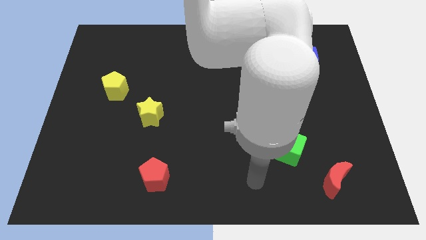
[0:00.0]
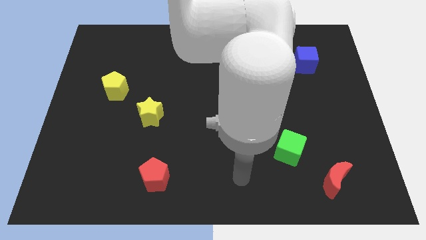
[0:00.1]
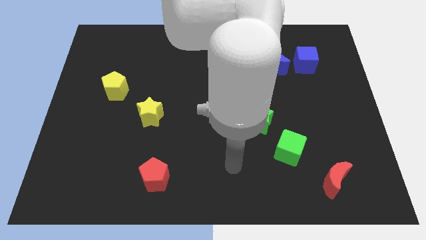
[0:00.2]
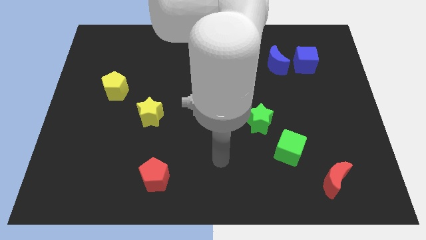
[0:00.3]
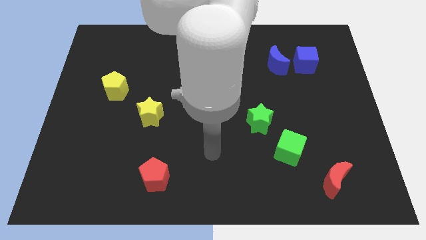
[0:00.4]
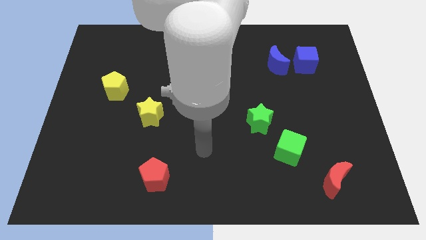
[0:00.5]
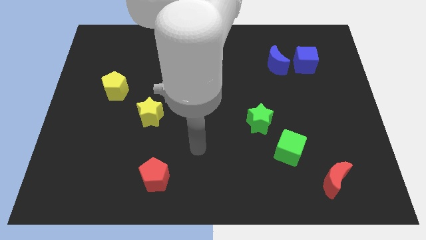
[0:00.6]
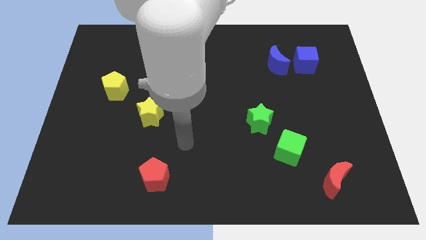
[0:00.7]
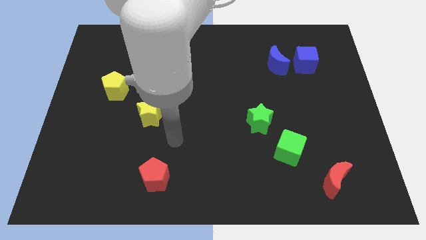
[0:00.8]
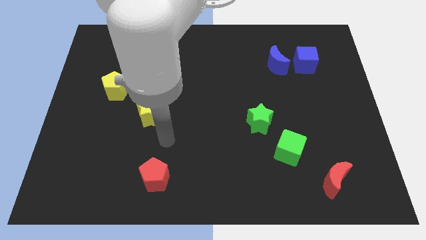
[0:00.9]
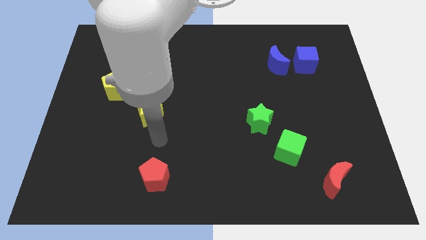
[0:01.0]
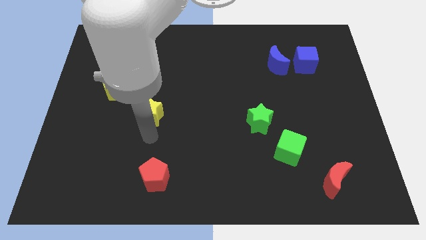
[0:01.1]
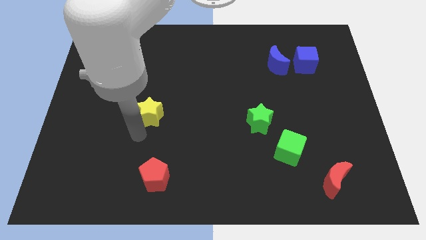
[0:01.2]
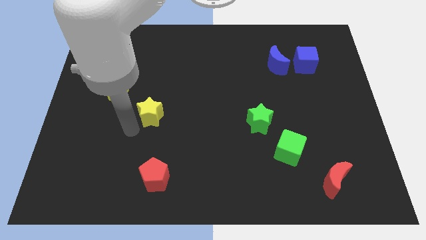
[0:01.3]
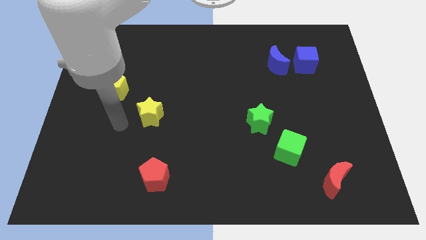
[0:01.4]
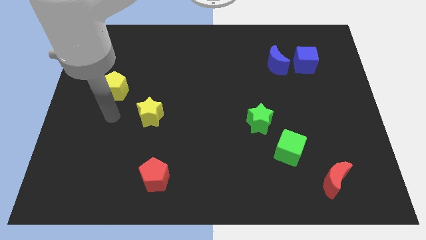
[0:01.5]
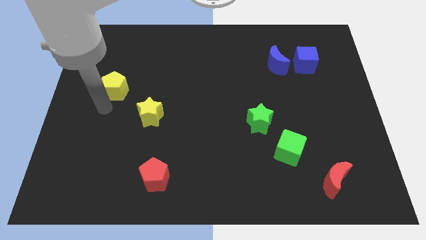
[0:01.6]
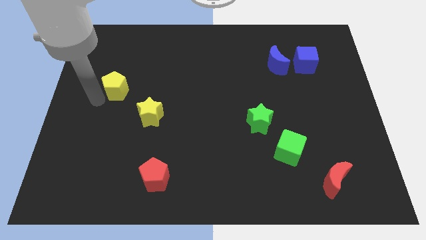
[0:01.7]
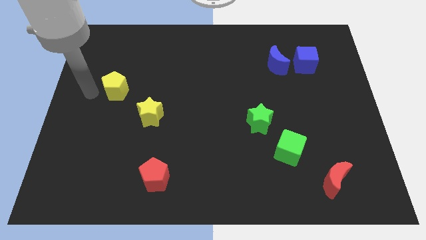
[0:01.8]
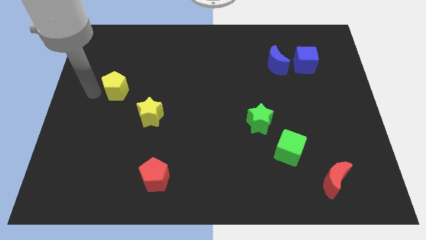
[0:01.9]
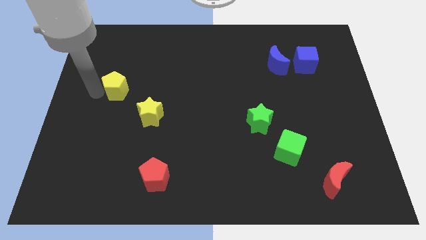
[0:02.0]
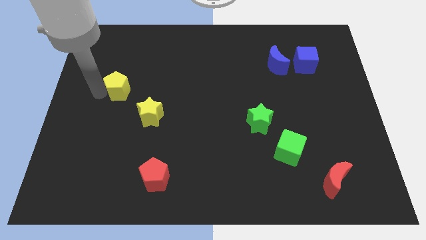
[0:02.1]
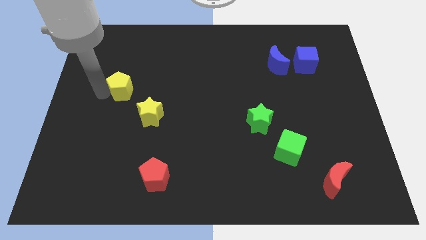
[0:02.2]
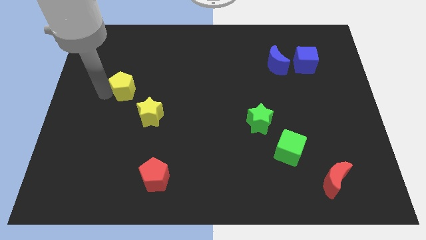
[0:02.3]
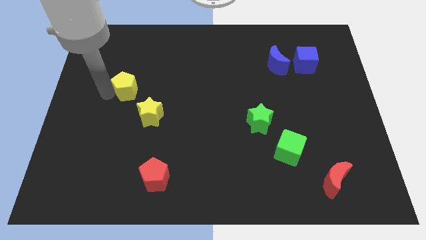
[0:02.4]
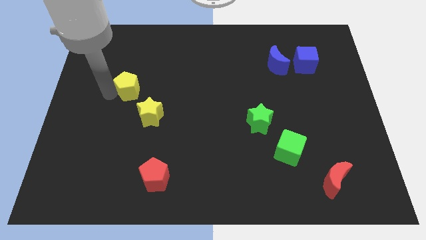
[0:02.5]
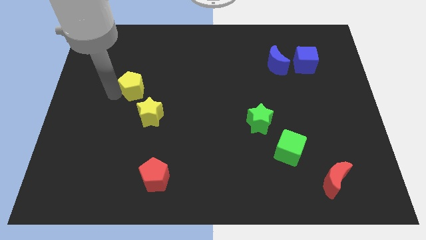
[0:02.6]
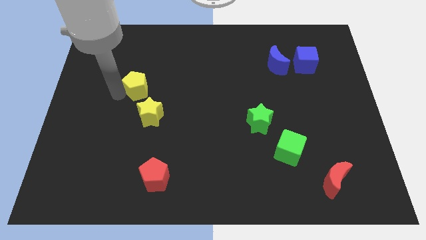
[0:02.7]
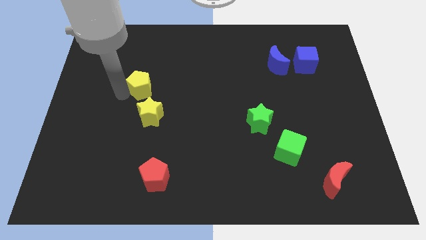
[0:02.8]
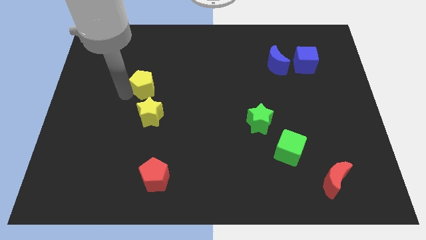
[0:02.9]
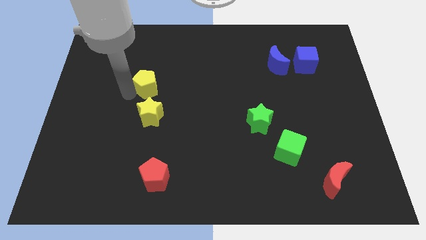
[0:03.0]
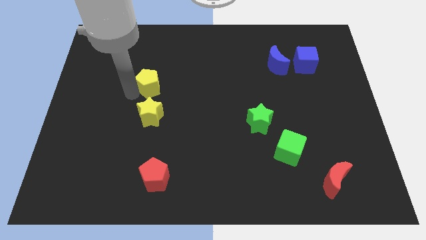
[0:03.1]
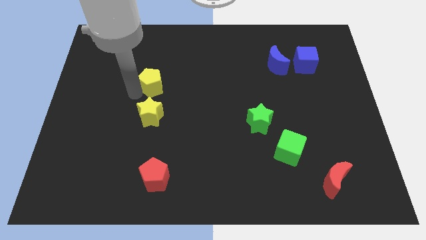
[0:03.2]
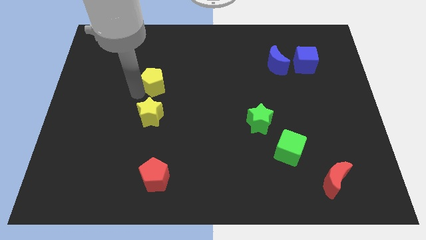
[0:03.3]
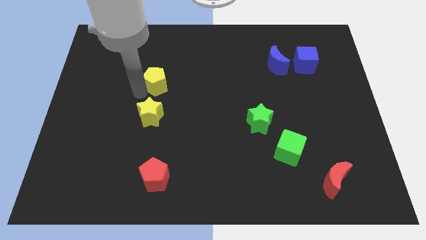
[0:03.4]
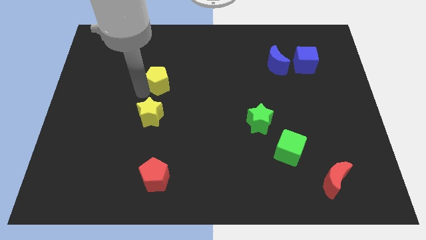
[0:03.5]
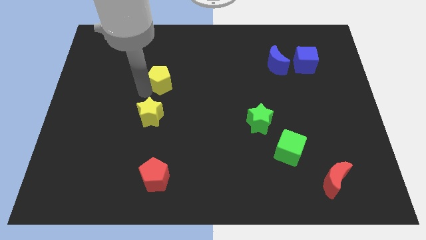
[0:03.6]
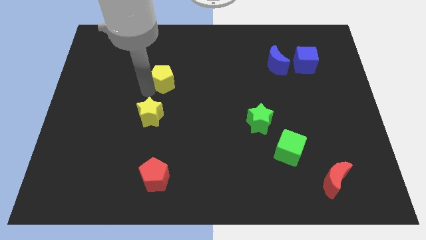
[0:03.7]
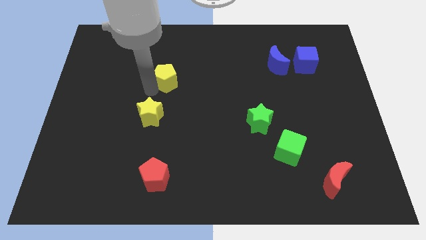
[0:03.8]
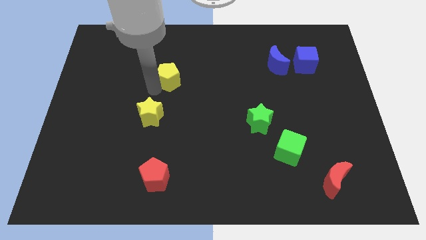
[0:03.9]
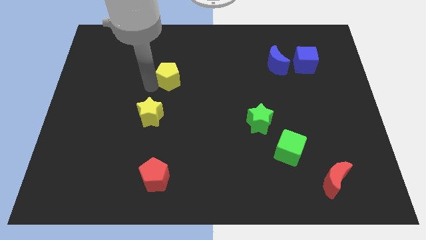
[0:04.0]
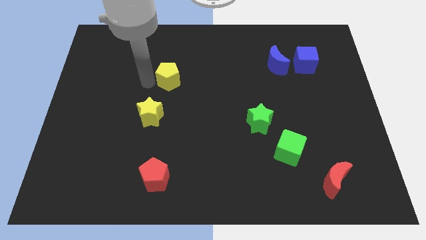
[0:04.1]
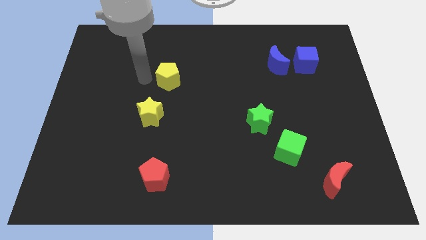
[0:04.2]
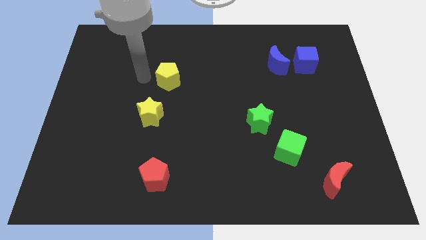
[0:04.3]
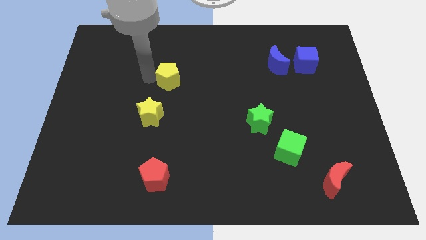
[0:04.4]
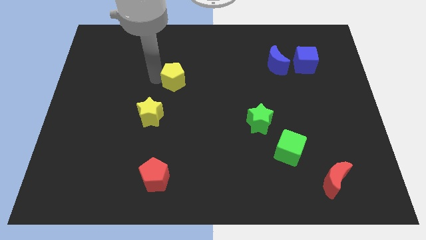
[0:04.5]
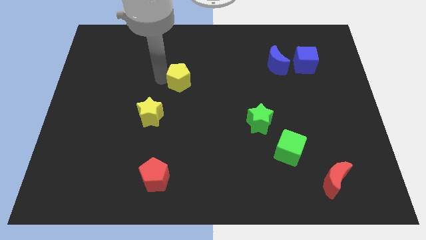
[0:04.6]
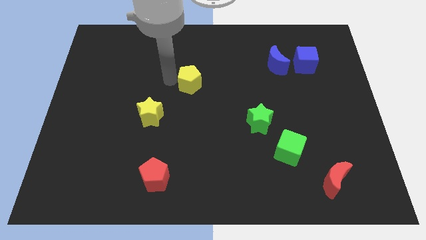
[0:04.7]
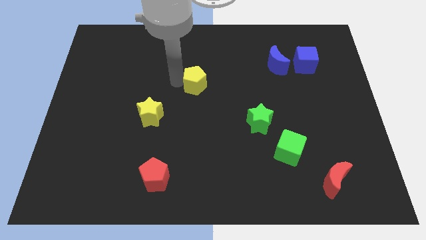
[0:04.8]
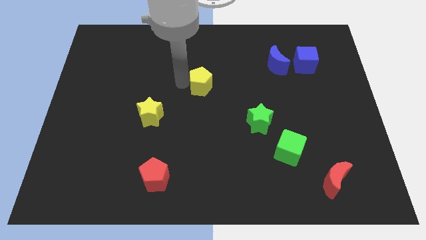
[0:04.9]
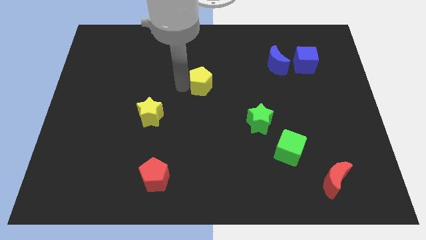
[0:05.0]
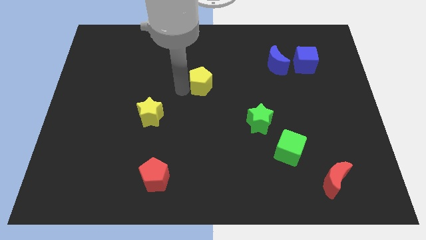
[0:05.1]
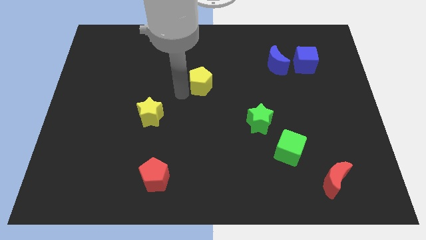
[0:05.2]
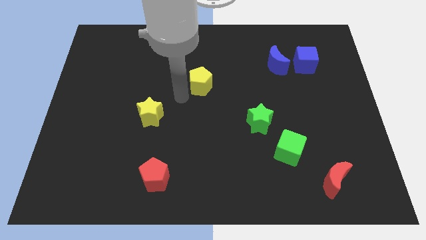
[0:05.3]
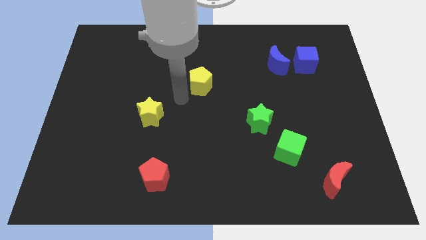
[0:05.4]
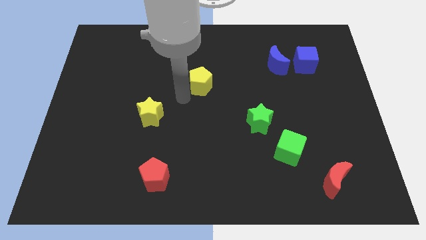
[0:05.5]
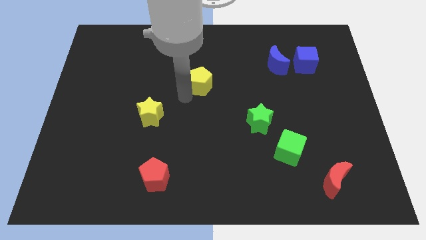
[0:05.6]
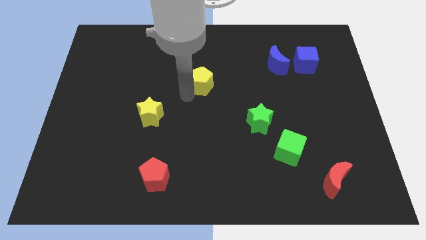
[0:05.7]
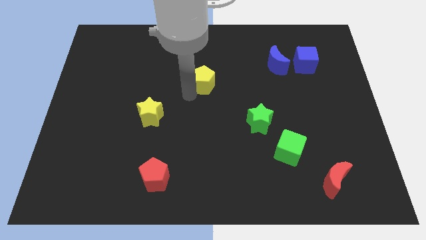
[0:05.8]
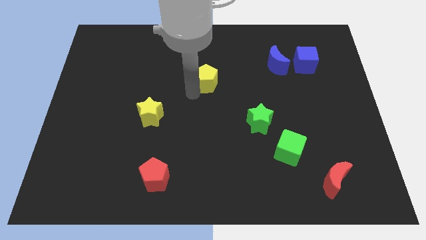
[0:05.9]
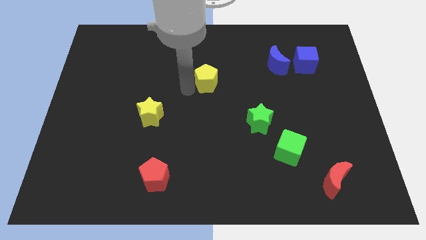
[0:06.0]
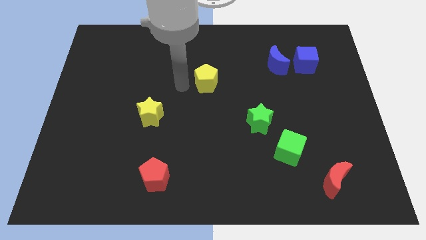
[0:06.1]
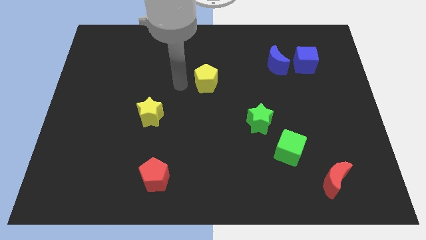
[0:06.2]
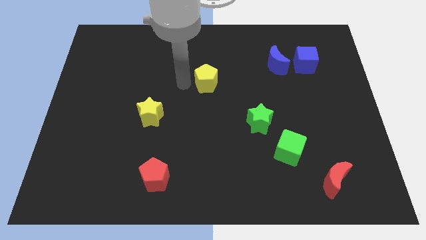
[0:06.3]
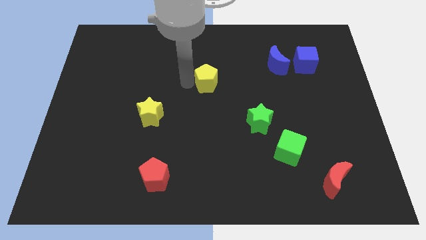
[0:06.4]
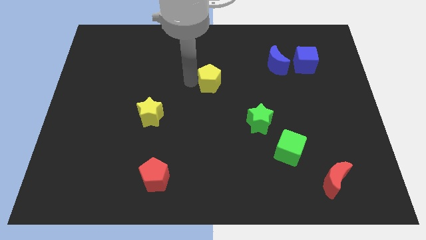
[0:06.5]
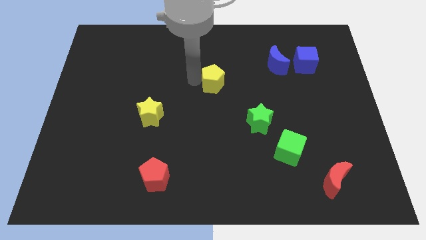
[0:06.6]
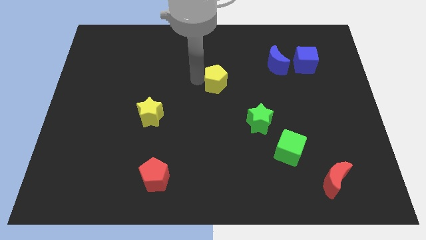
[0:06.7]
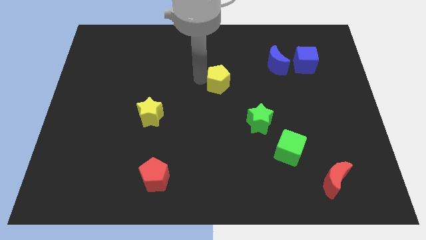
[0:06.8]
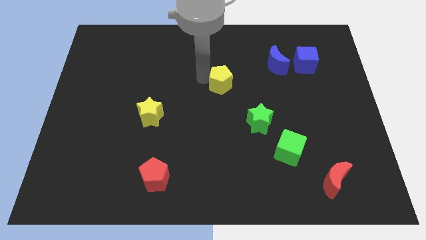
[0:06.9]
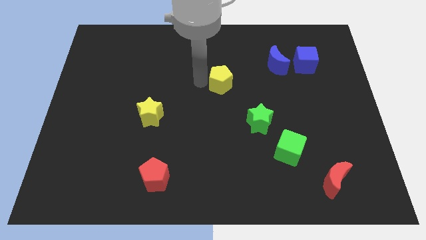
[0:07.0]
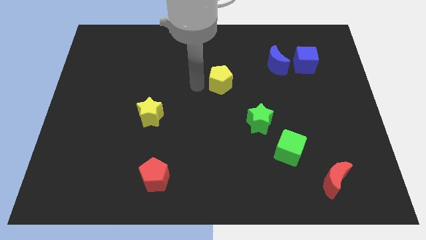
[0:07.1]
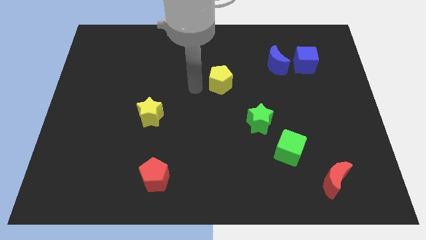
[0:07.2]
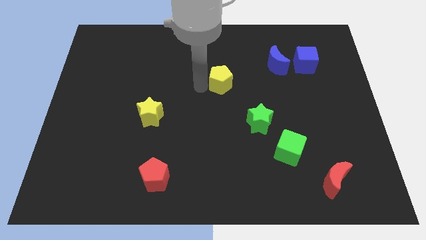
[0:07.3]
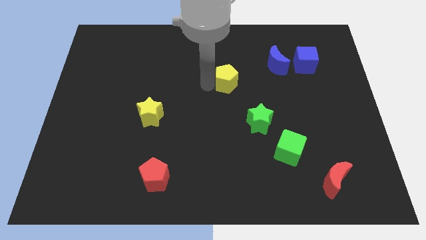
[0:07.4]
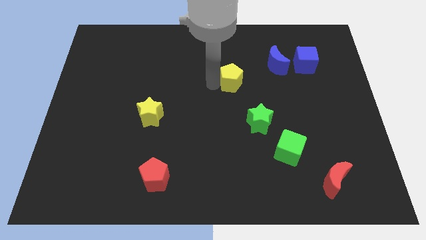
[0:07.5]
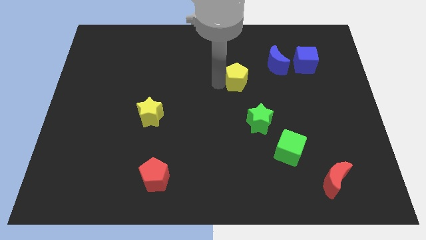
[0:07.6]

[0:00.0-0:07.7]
slide the yellow pentagon to the bottom left of the blue moon
